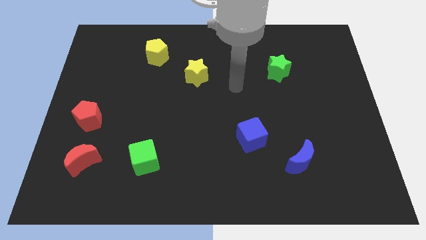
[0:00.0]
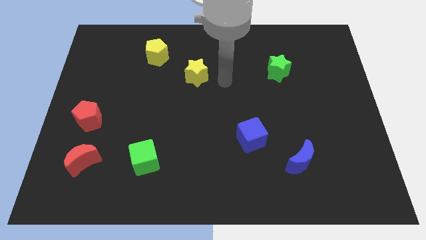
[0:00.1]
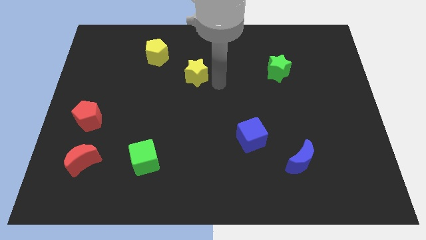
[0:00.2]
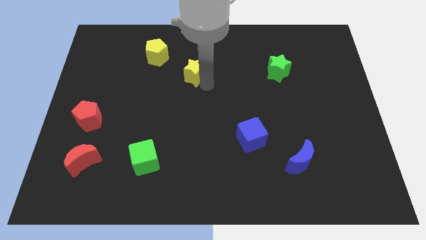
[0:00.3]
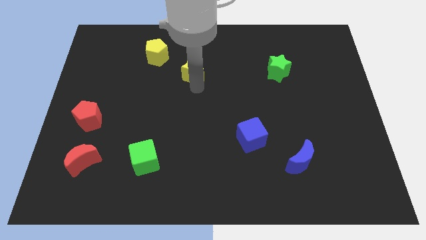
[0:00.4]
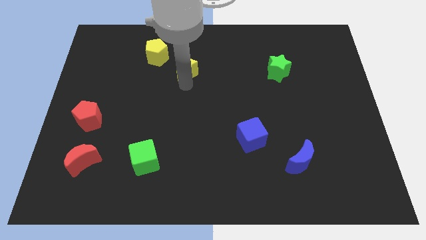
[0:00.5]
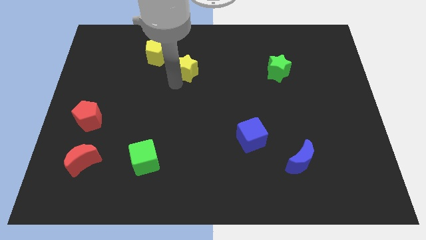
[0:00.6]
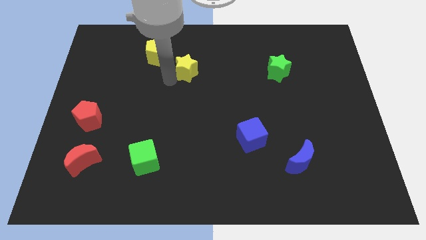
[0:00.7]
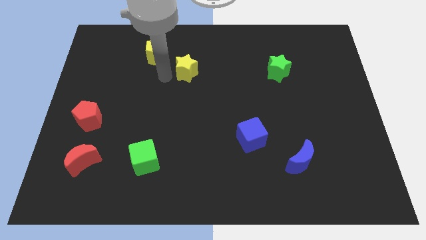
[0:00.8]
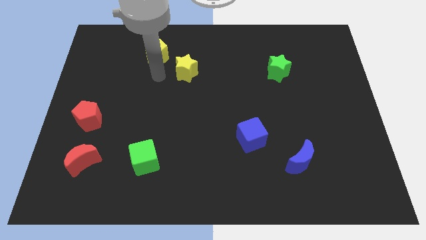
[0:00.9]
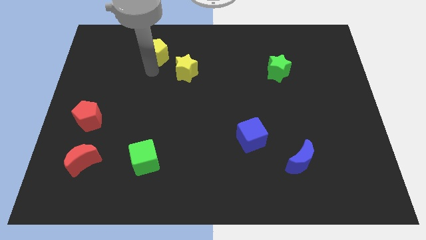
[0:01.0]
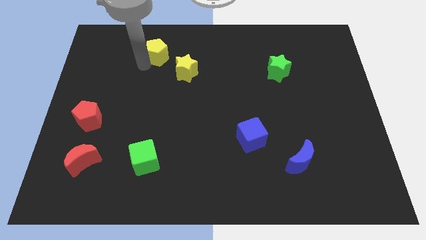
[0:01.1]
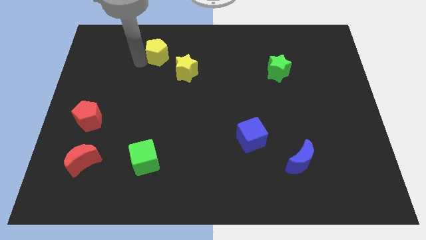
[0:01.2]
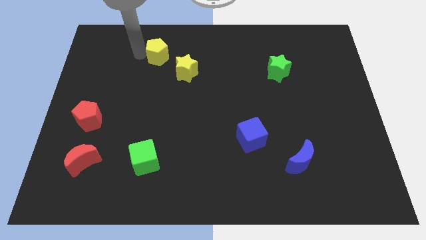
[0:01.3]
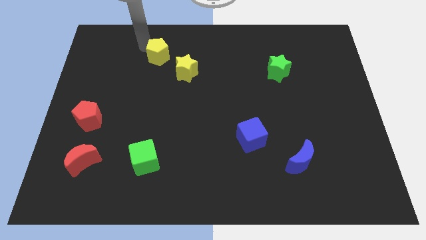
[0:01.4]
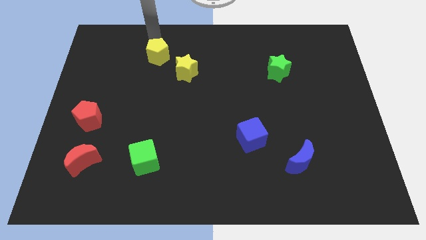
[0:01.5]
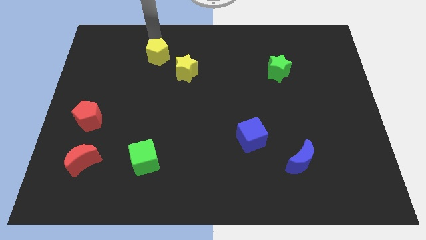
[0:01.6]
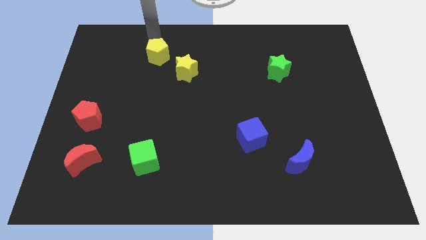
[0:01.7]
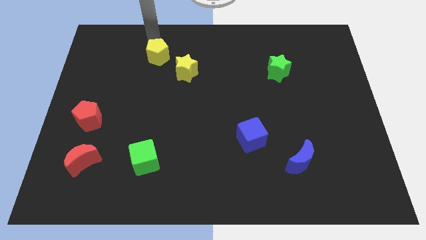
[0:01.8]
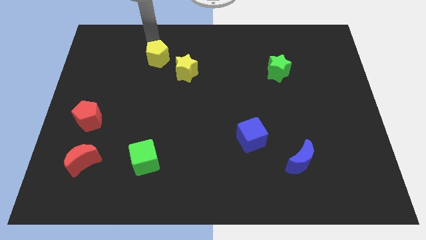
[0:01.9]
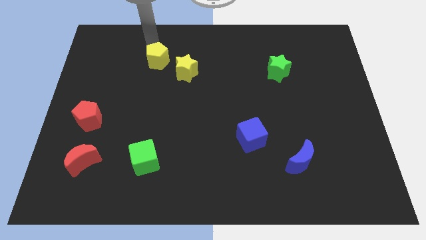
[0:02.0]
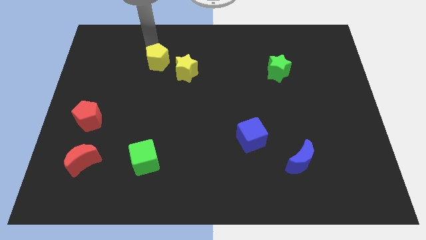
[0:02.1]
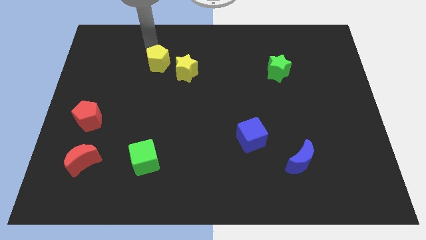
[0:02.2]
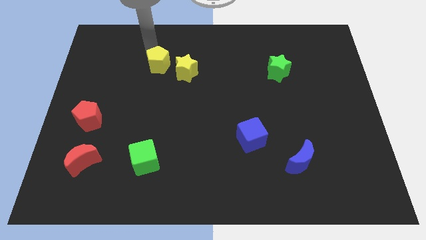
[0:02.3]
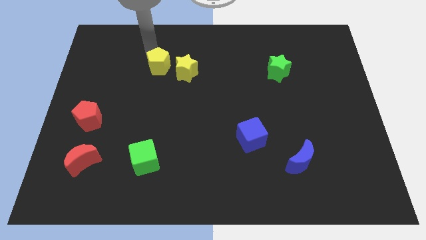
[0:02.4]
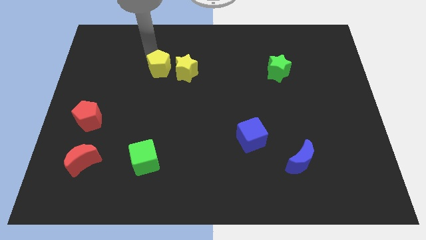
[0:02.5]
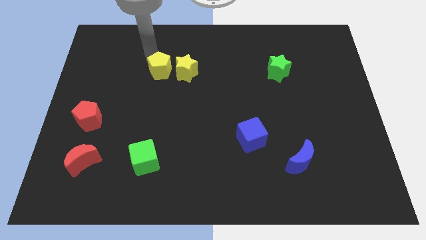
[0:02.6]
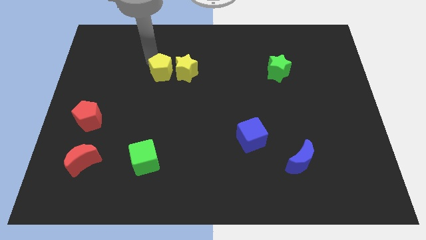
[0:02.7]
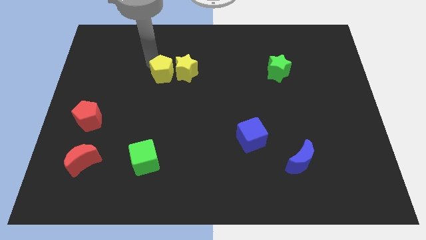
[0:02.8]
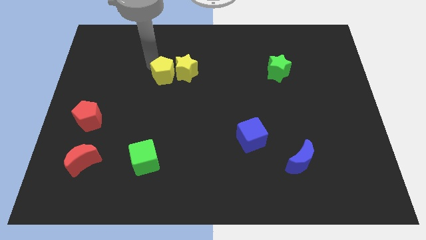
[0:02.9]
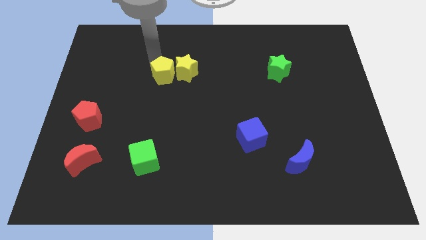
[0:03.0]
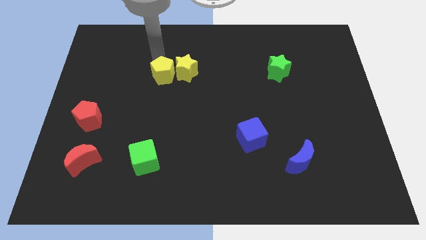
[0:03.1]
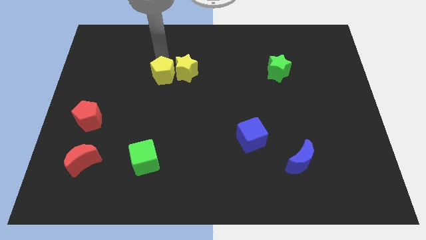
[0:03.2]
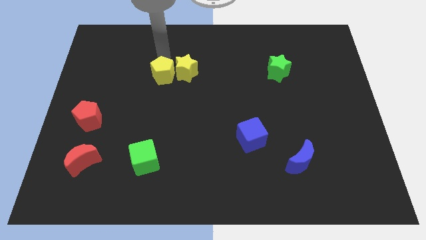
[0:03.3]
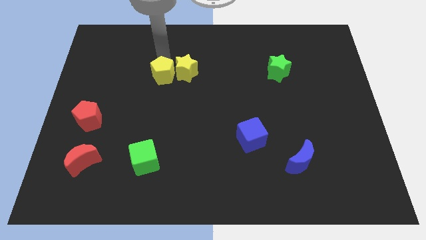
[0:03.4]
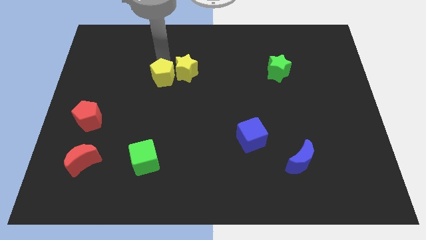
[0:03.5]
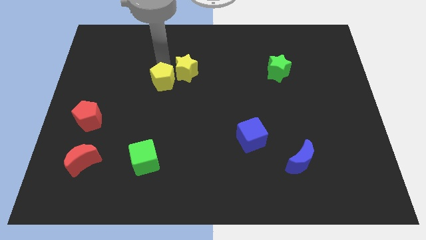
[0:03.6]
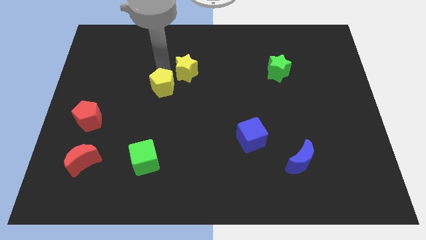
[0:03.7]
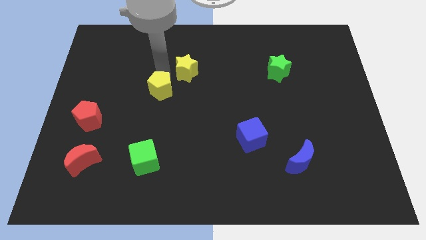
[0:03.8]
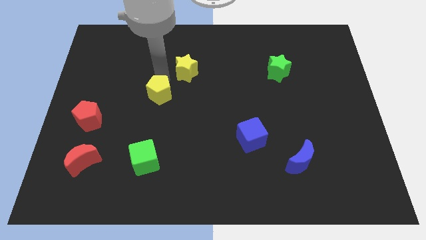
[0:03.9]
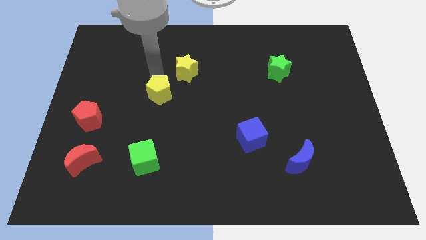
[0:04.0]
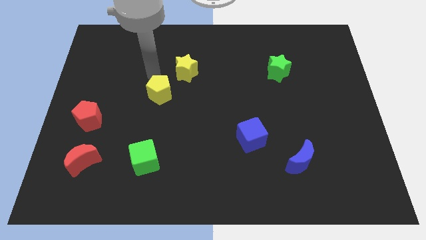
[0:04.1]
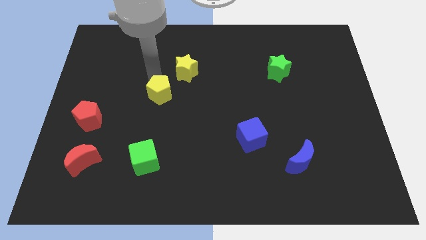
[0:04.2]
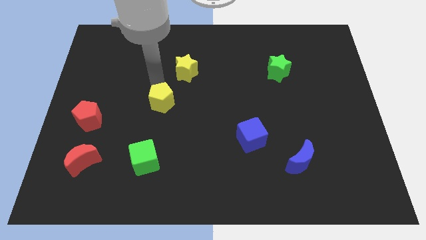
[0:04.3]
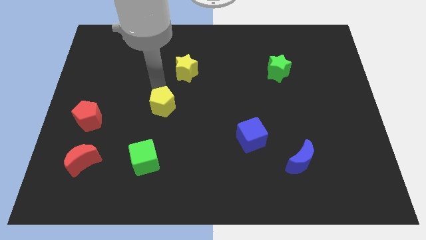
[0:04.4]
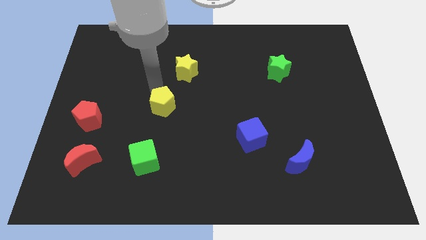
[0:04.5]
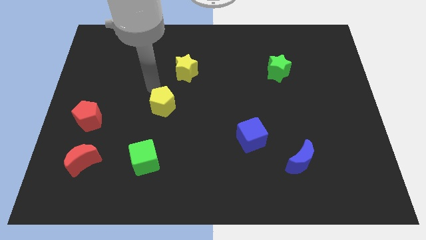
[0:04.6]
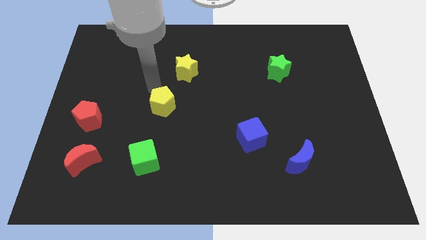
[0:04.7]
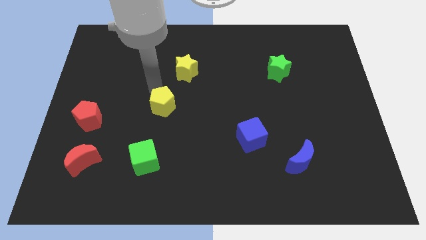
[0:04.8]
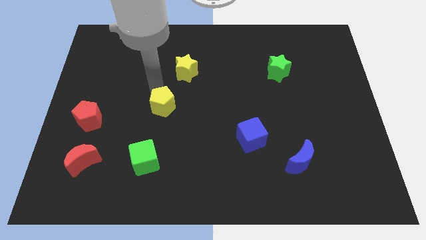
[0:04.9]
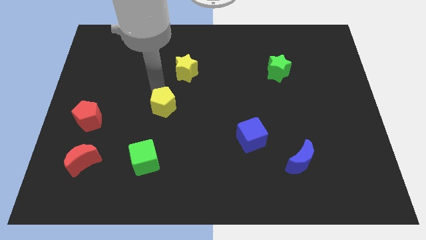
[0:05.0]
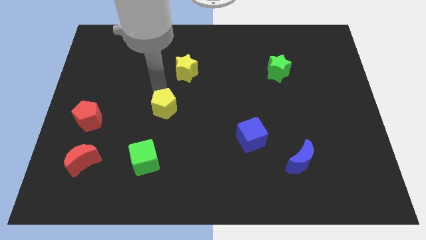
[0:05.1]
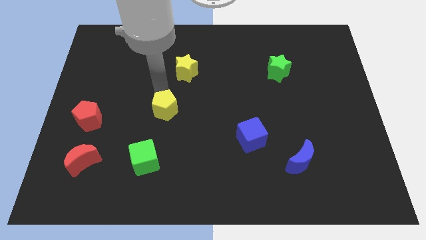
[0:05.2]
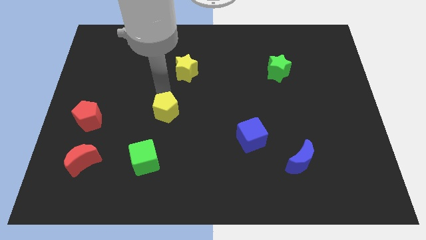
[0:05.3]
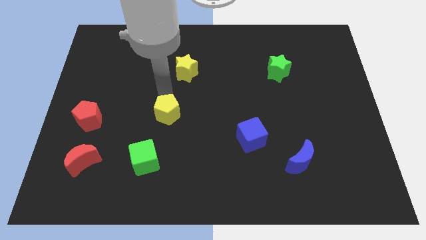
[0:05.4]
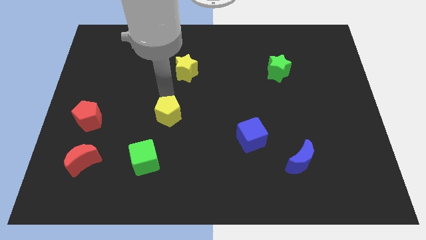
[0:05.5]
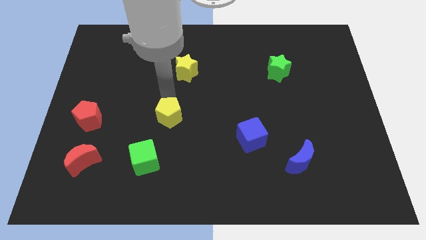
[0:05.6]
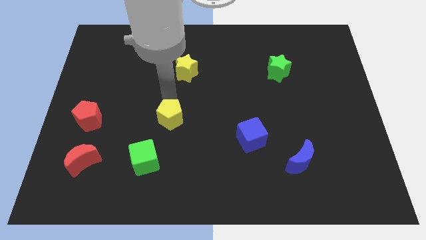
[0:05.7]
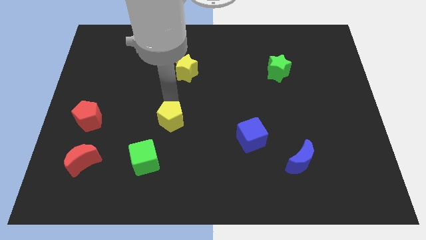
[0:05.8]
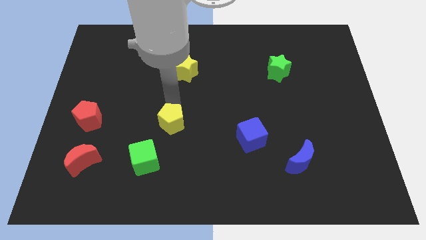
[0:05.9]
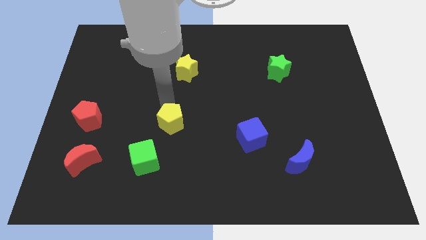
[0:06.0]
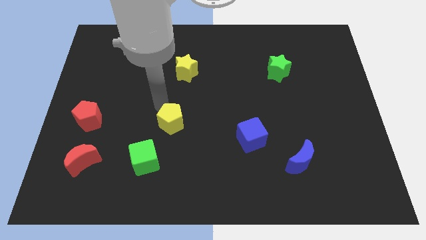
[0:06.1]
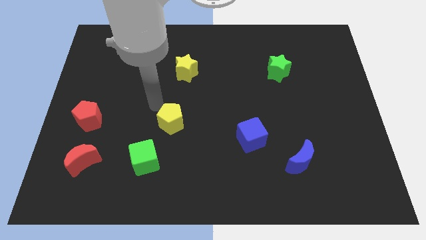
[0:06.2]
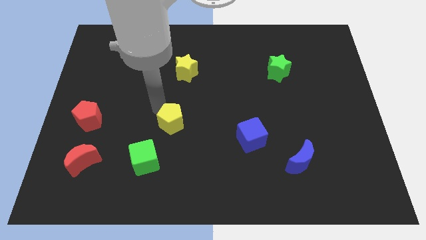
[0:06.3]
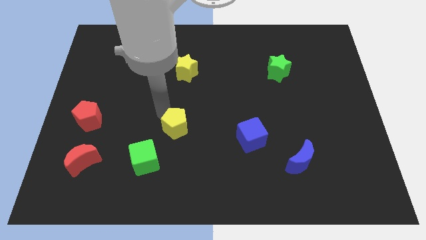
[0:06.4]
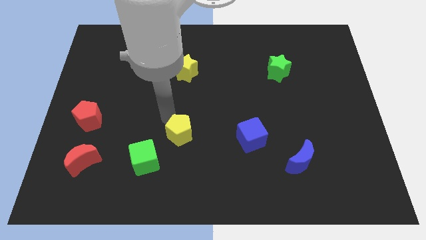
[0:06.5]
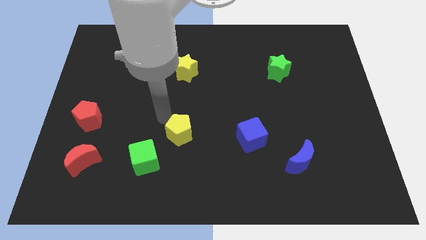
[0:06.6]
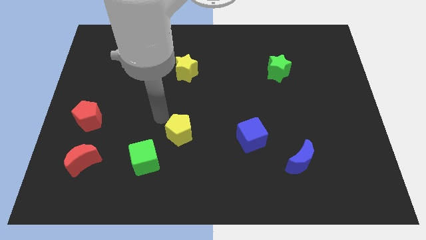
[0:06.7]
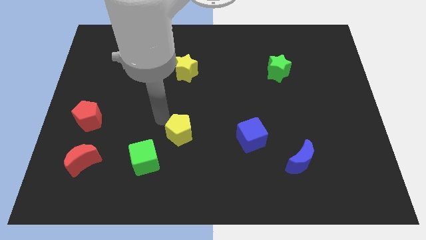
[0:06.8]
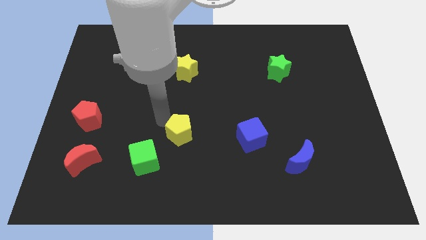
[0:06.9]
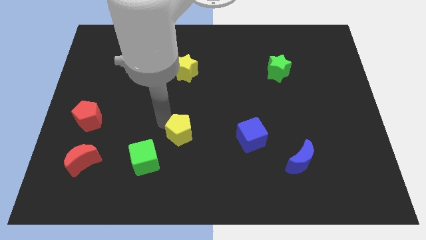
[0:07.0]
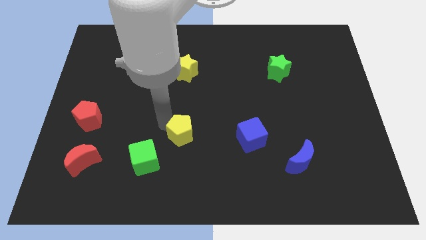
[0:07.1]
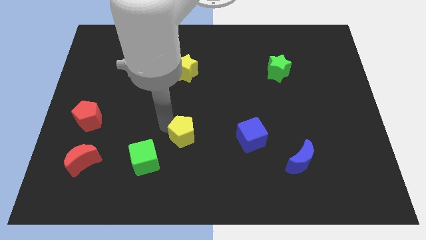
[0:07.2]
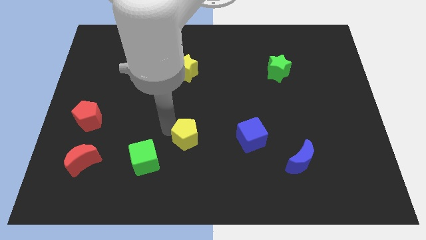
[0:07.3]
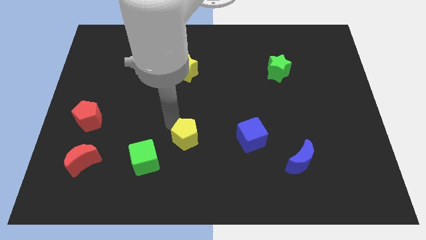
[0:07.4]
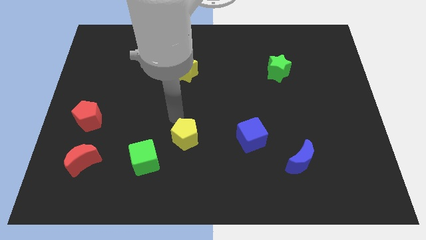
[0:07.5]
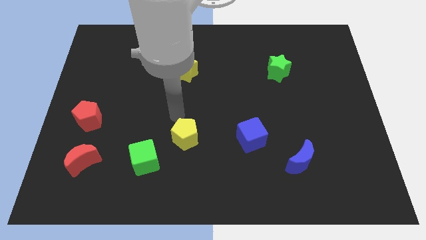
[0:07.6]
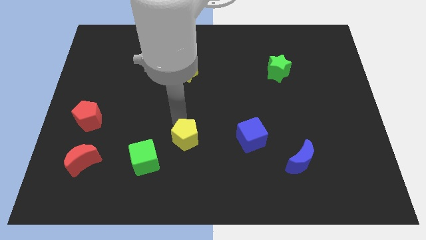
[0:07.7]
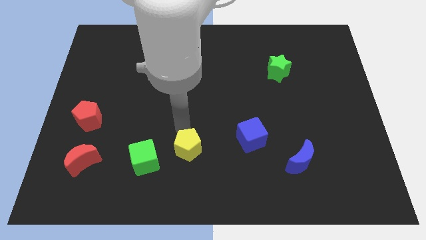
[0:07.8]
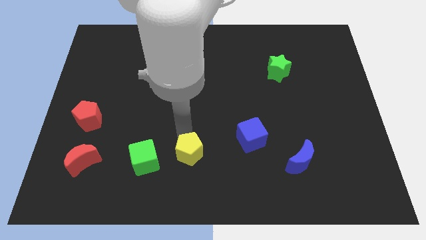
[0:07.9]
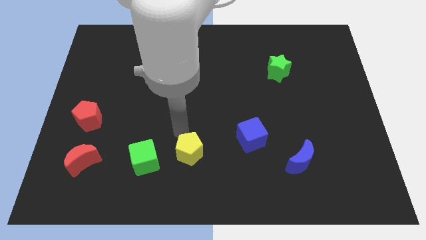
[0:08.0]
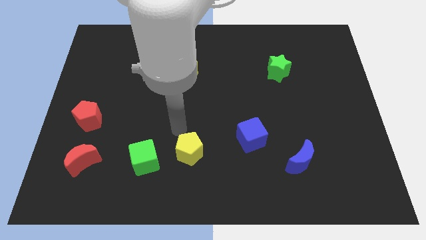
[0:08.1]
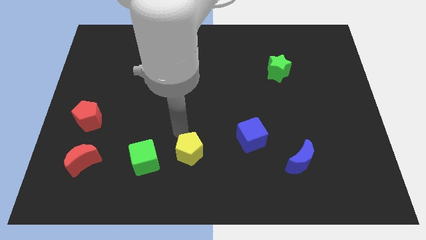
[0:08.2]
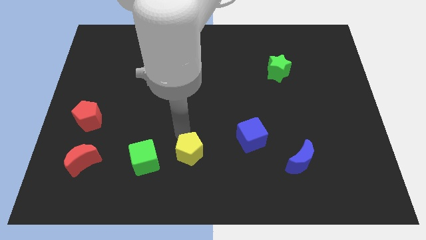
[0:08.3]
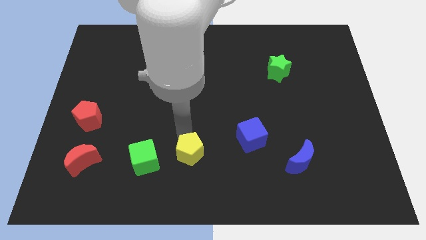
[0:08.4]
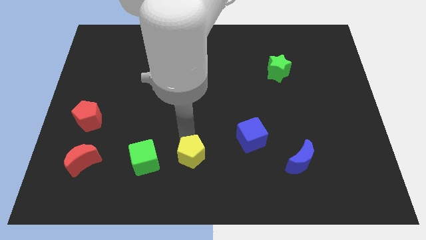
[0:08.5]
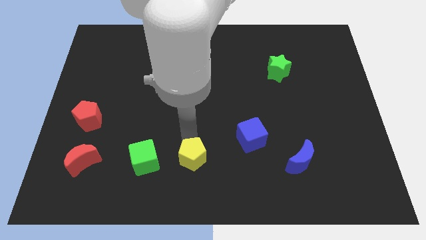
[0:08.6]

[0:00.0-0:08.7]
slide the yellow pentagon to the bottom
